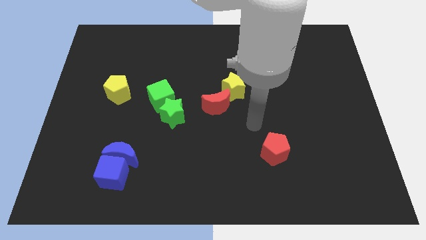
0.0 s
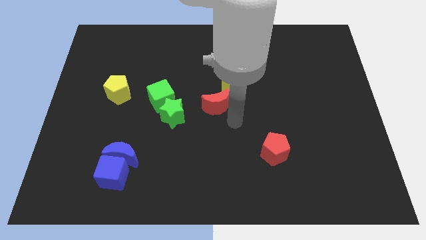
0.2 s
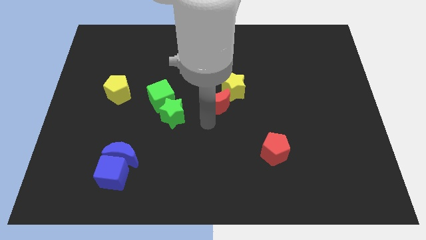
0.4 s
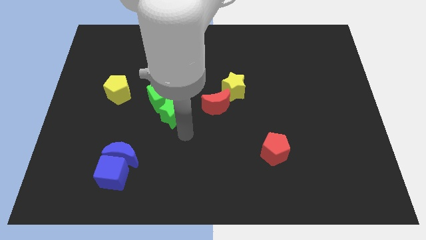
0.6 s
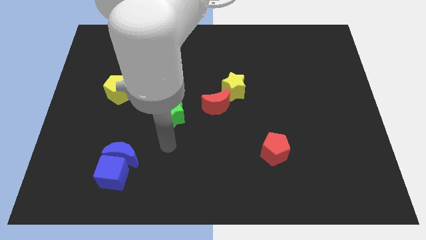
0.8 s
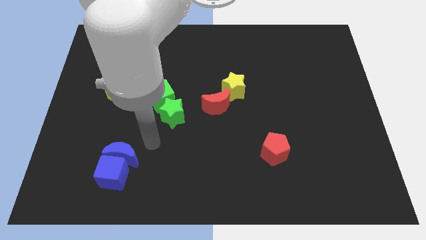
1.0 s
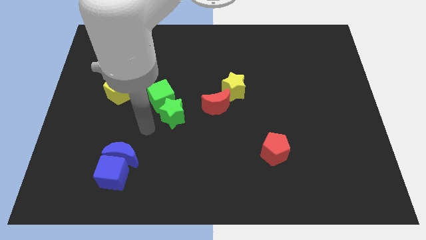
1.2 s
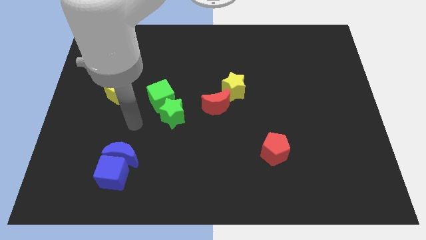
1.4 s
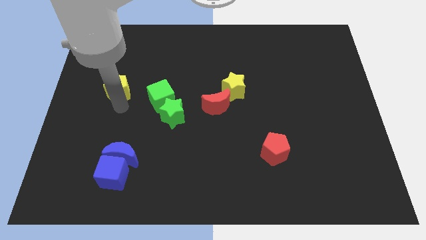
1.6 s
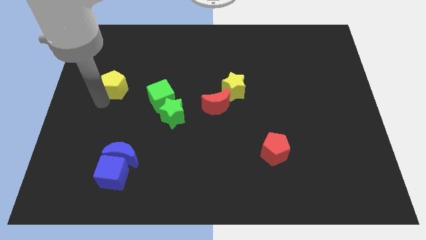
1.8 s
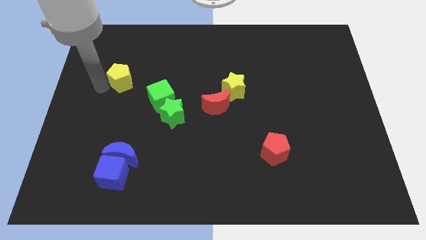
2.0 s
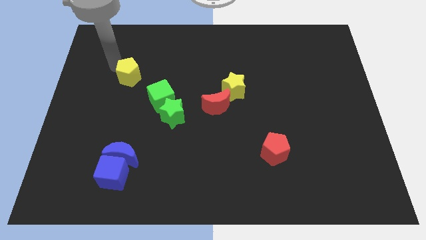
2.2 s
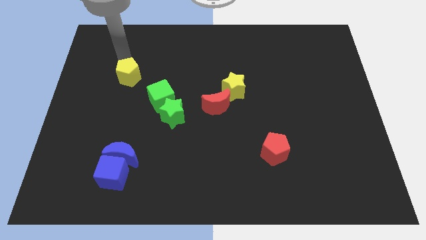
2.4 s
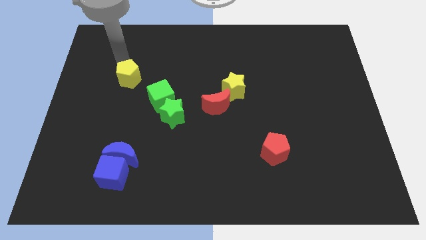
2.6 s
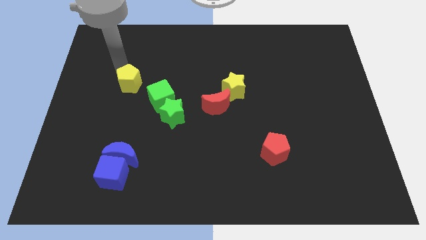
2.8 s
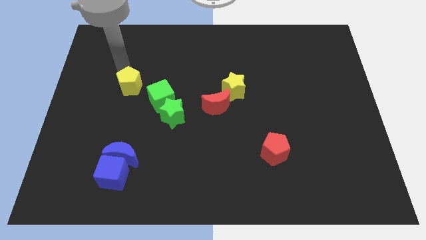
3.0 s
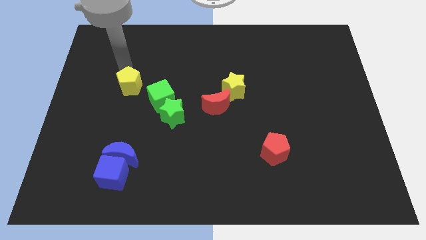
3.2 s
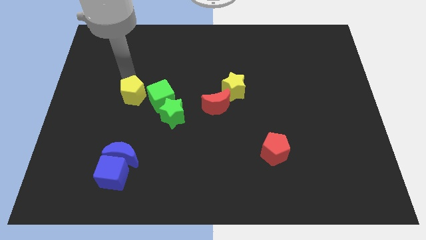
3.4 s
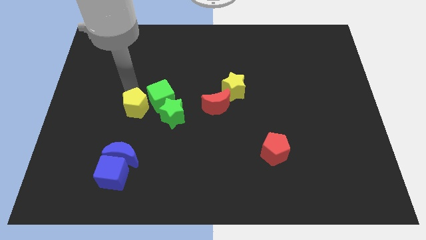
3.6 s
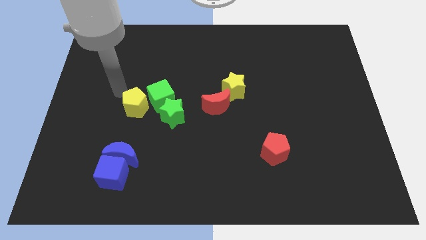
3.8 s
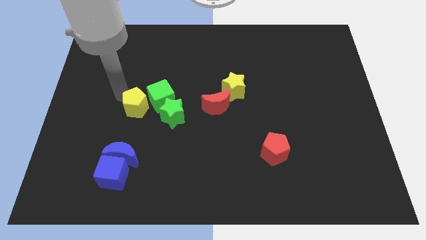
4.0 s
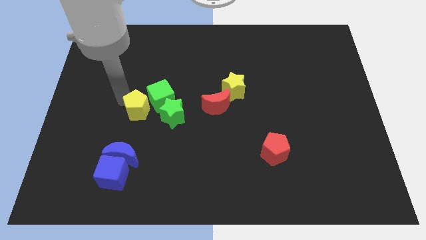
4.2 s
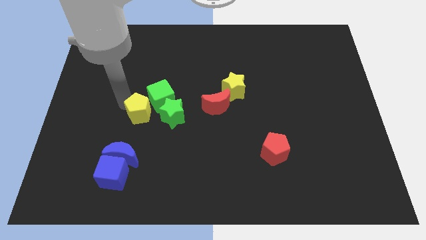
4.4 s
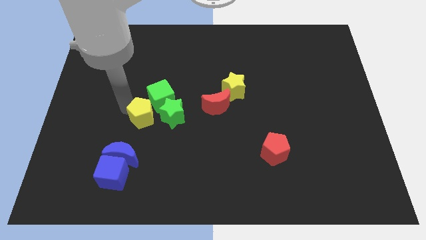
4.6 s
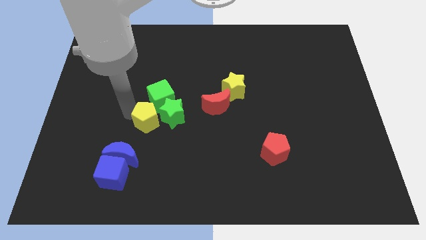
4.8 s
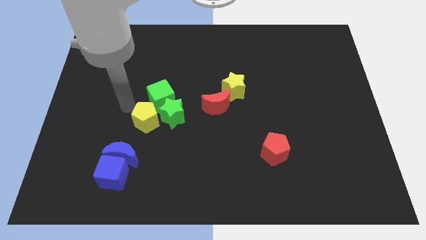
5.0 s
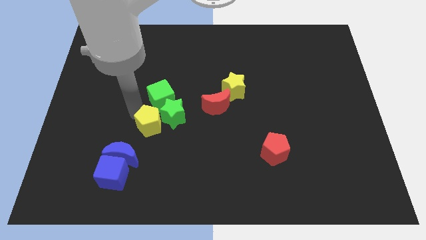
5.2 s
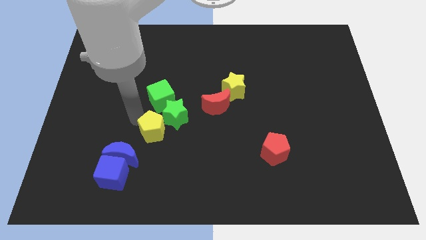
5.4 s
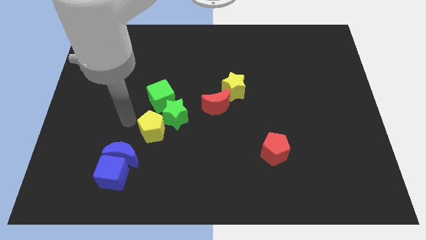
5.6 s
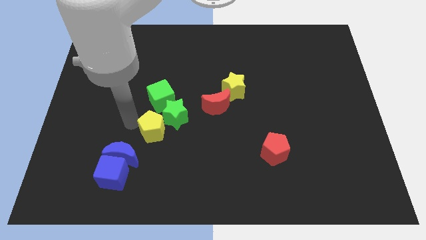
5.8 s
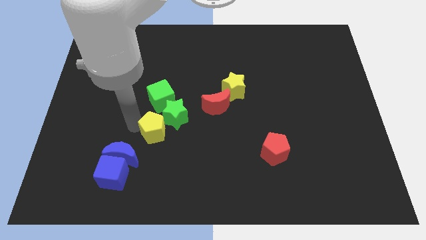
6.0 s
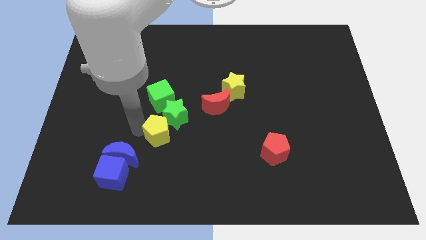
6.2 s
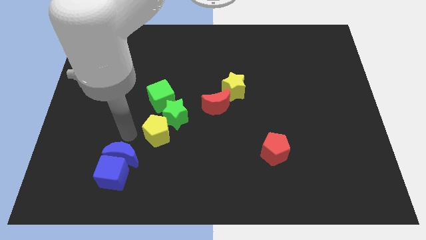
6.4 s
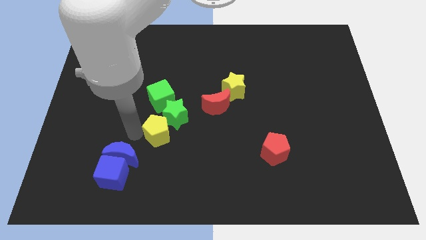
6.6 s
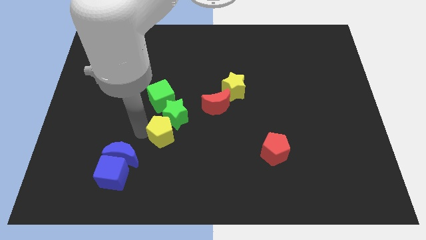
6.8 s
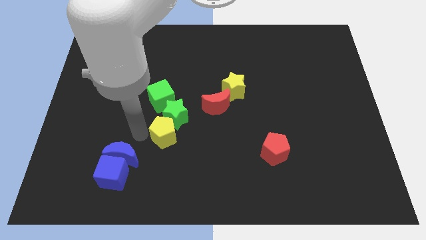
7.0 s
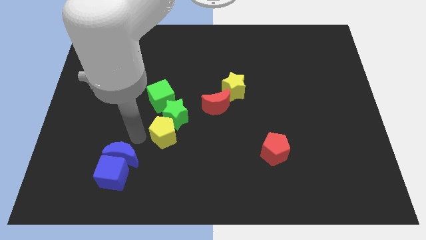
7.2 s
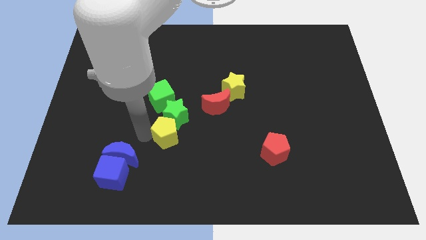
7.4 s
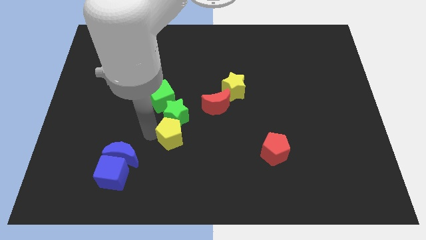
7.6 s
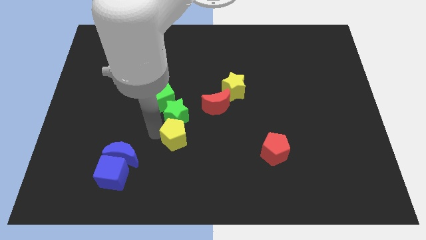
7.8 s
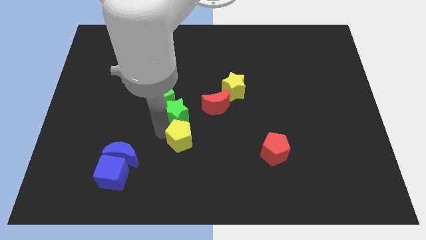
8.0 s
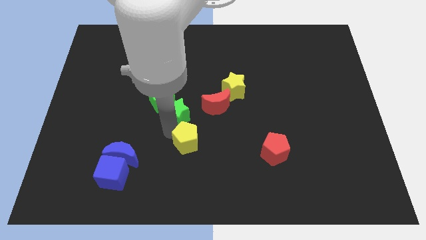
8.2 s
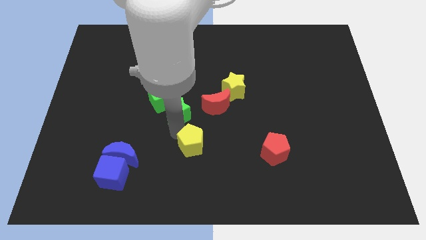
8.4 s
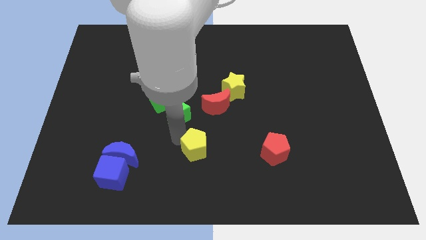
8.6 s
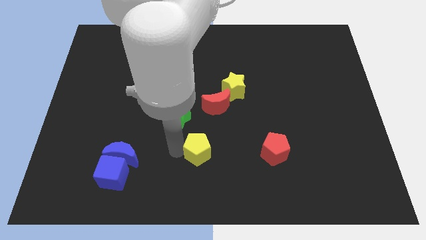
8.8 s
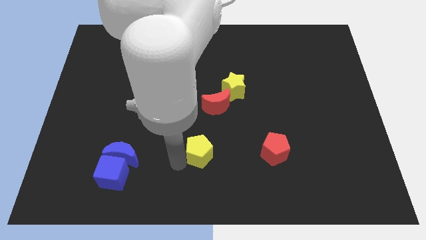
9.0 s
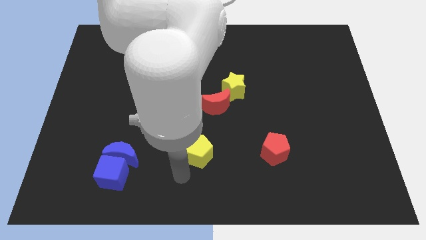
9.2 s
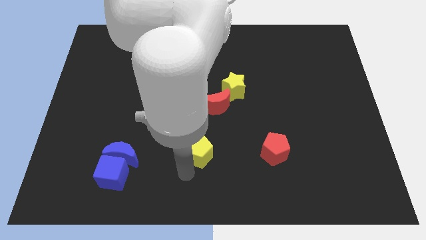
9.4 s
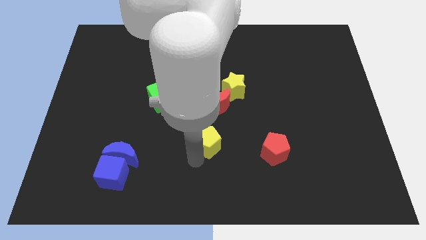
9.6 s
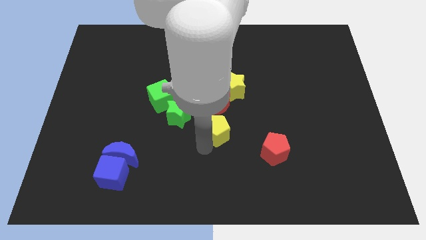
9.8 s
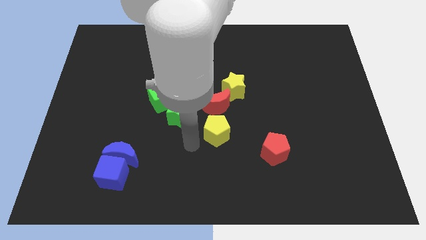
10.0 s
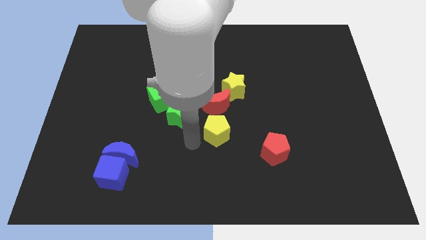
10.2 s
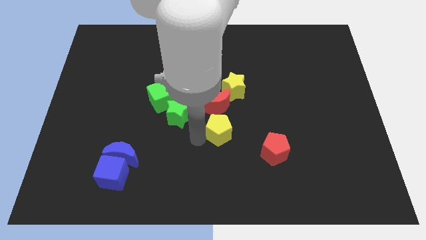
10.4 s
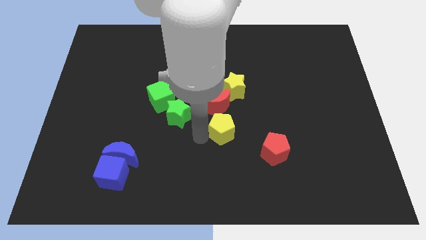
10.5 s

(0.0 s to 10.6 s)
push the yellow pentagon diagonally down and to the right of the red moon
